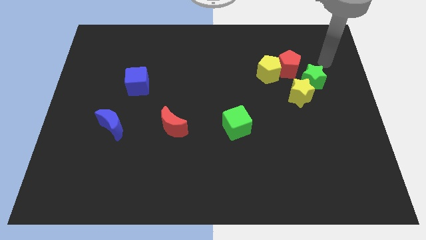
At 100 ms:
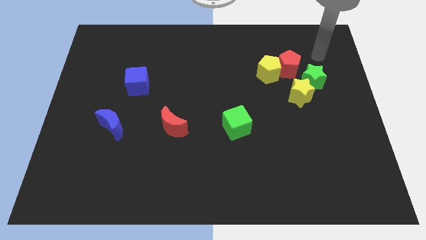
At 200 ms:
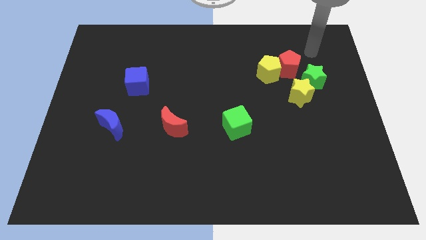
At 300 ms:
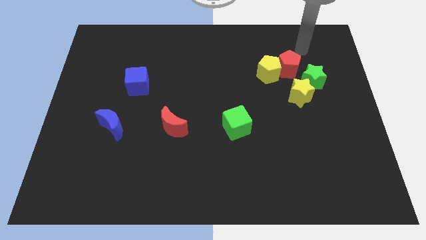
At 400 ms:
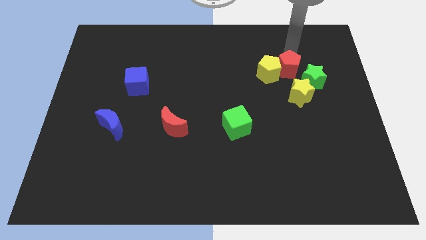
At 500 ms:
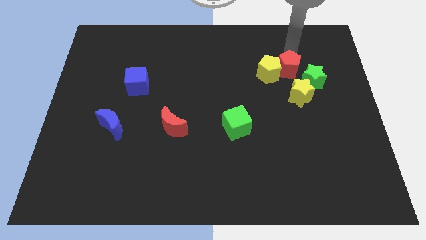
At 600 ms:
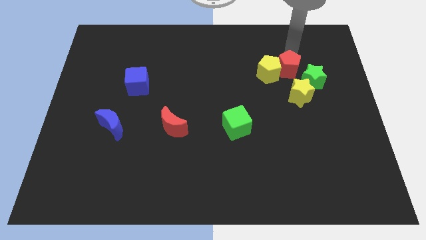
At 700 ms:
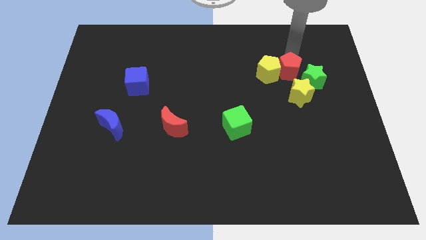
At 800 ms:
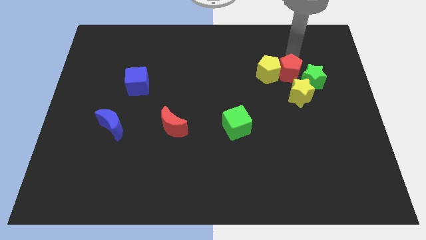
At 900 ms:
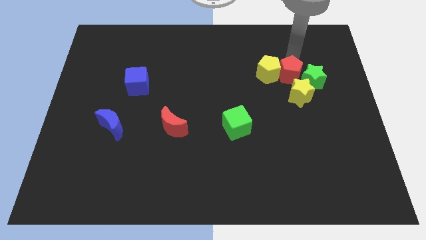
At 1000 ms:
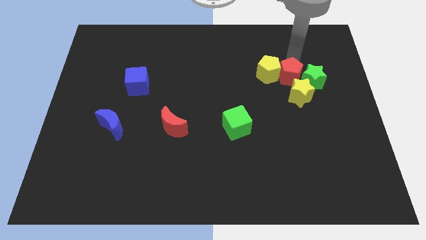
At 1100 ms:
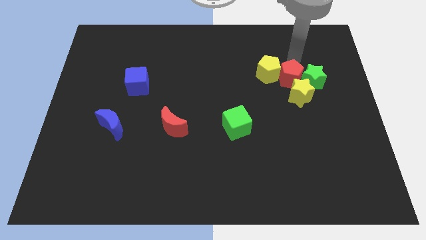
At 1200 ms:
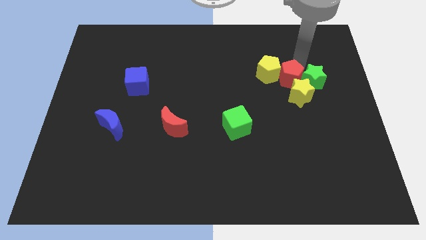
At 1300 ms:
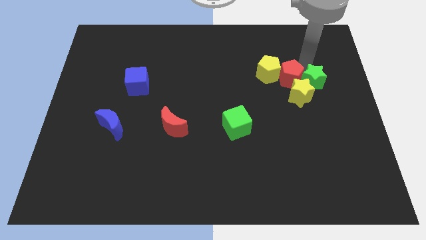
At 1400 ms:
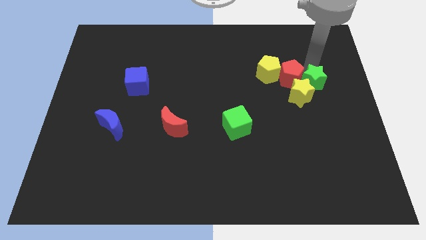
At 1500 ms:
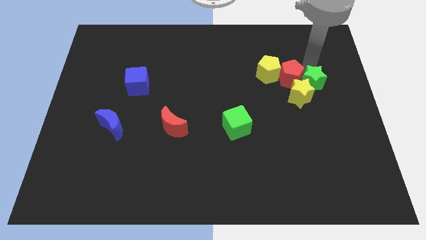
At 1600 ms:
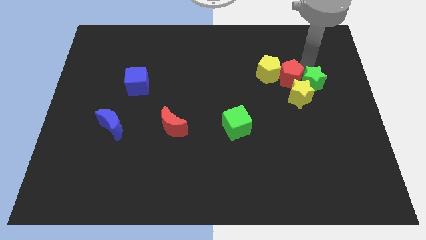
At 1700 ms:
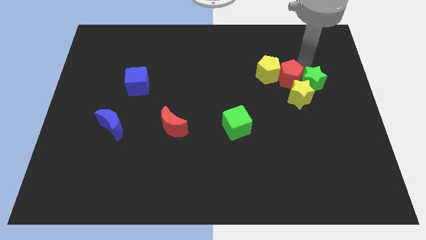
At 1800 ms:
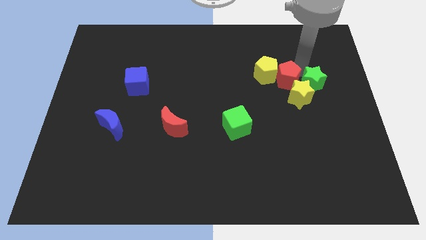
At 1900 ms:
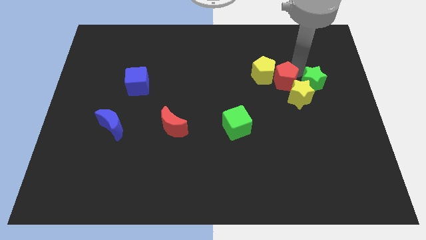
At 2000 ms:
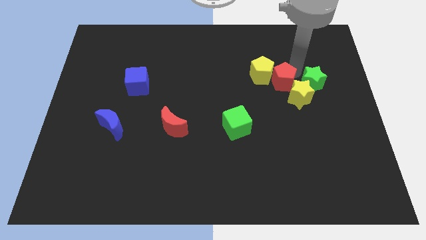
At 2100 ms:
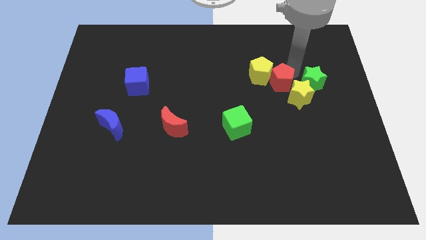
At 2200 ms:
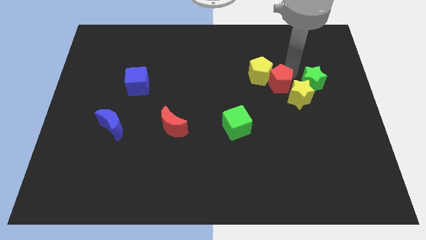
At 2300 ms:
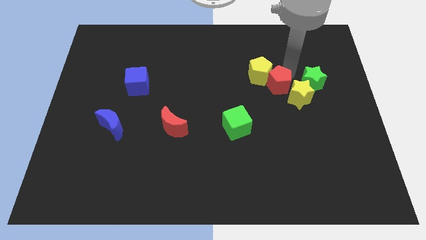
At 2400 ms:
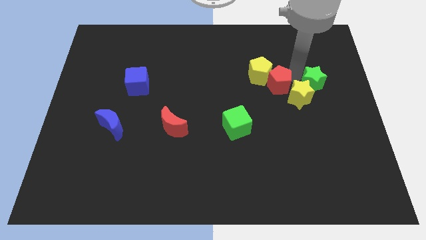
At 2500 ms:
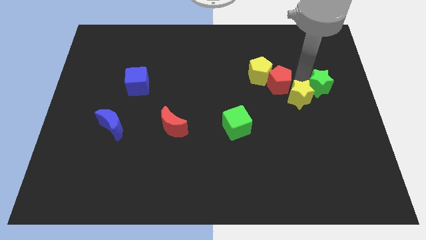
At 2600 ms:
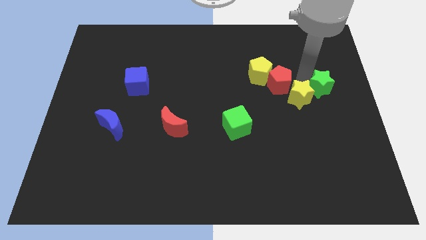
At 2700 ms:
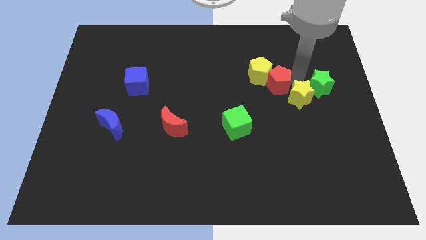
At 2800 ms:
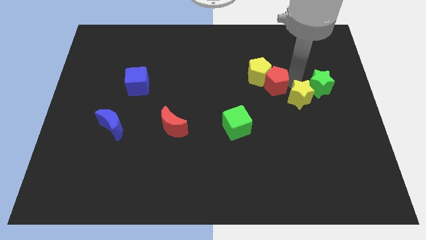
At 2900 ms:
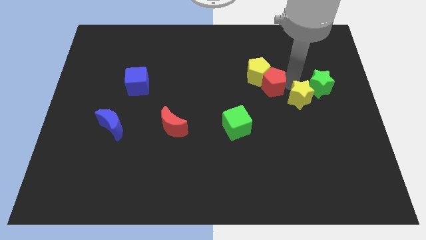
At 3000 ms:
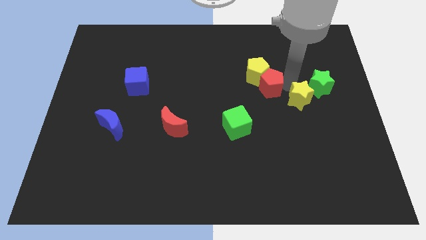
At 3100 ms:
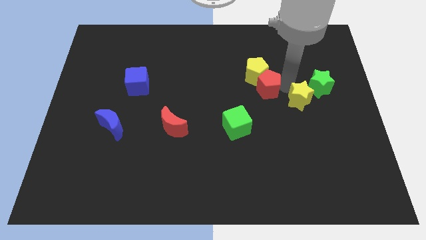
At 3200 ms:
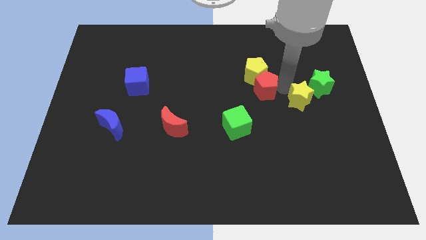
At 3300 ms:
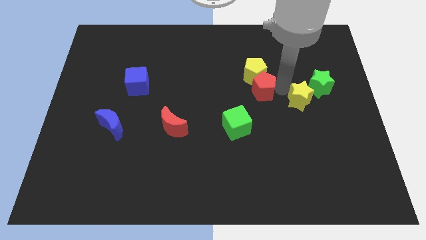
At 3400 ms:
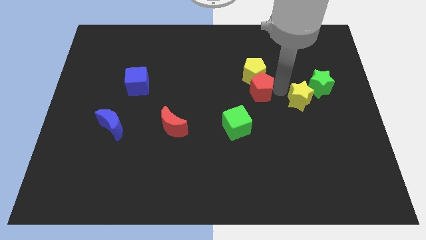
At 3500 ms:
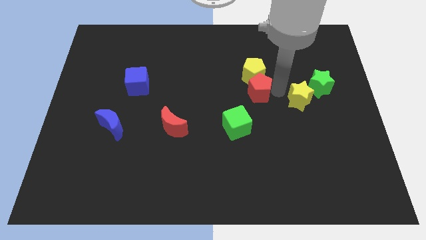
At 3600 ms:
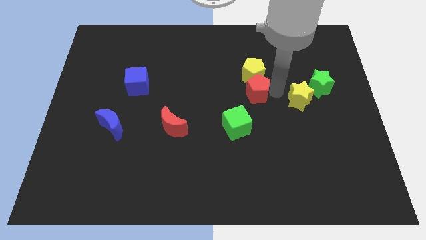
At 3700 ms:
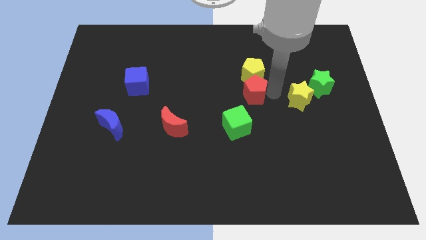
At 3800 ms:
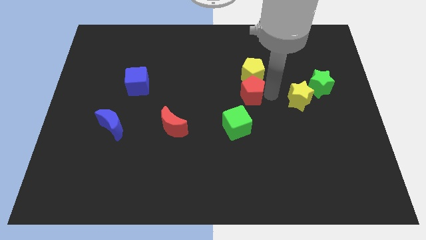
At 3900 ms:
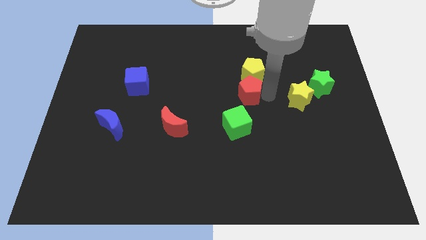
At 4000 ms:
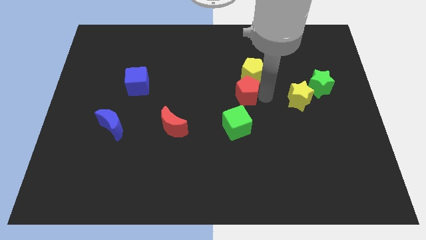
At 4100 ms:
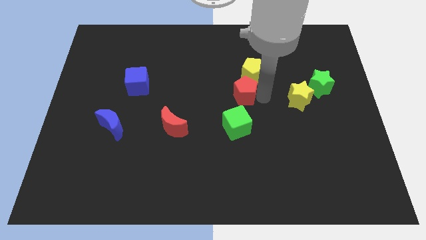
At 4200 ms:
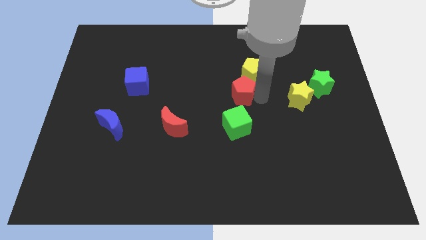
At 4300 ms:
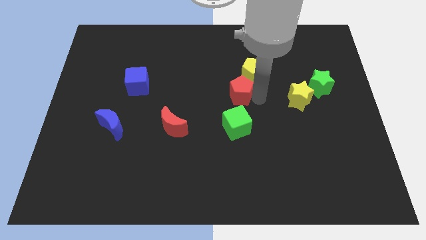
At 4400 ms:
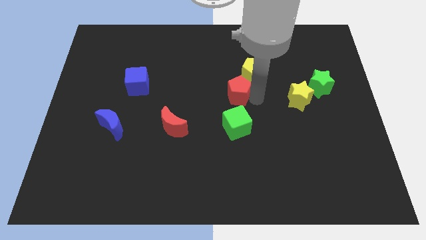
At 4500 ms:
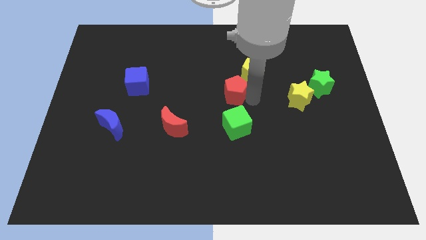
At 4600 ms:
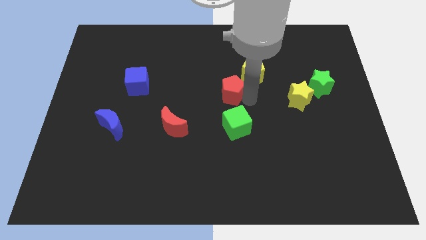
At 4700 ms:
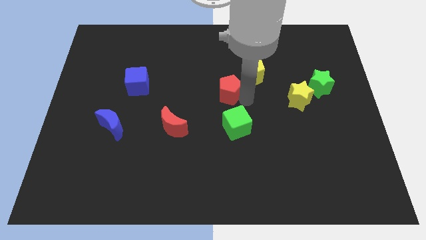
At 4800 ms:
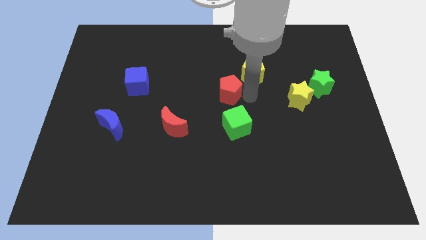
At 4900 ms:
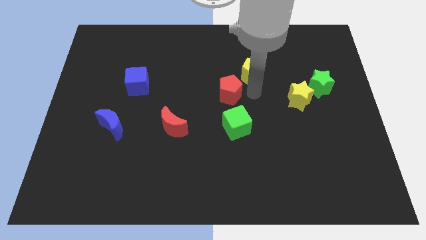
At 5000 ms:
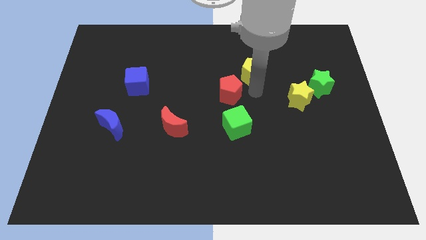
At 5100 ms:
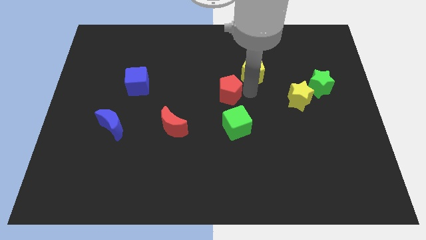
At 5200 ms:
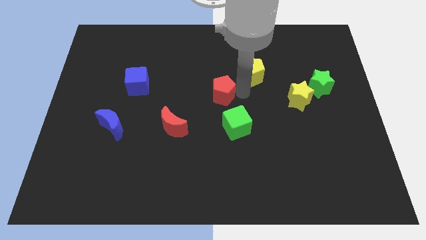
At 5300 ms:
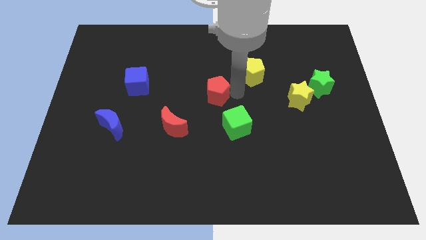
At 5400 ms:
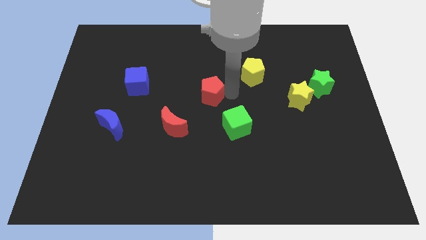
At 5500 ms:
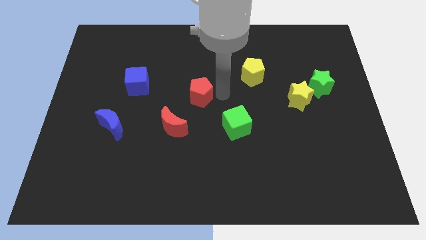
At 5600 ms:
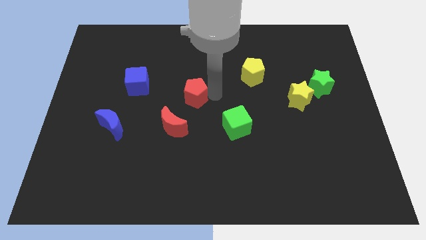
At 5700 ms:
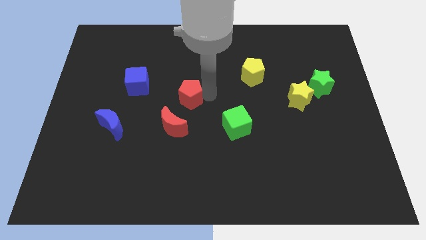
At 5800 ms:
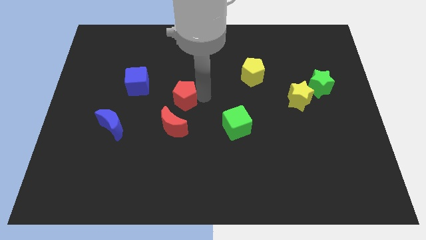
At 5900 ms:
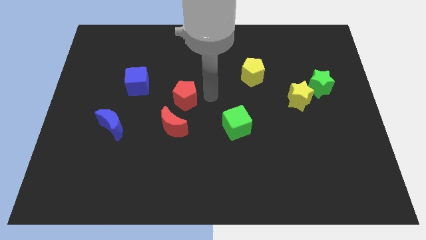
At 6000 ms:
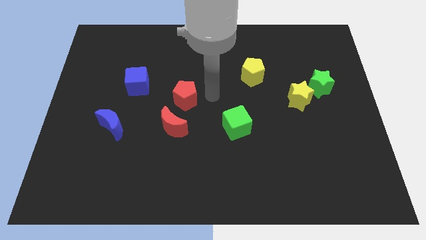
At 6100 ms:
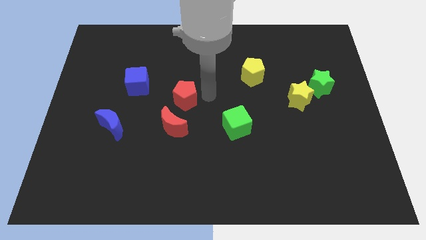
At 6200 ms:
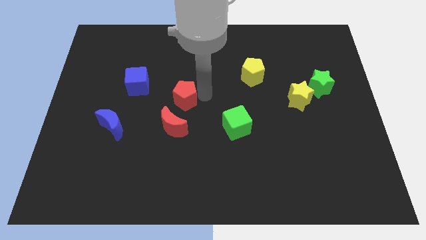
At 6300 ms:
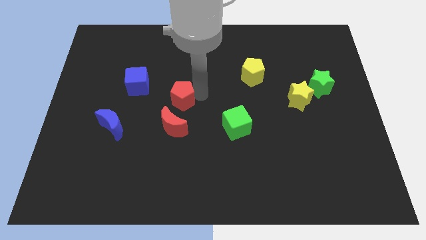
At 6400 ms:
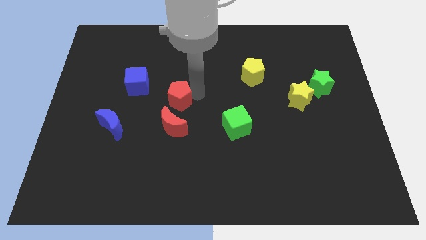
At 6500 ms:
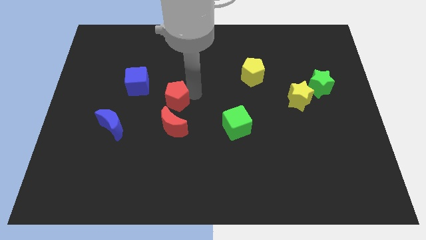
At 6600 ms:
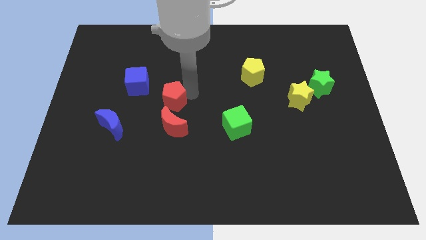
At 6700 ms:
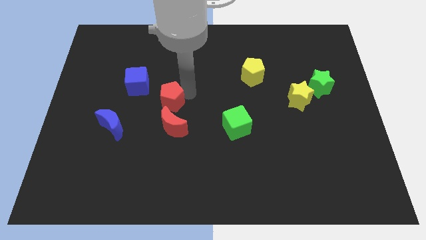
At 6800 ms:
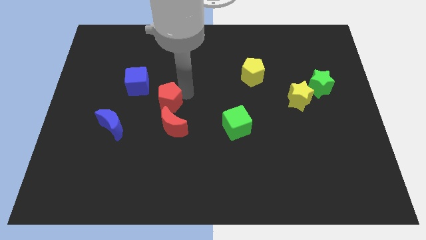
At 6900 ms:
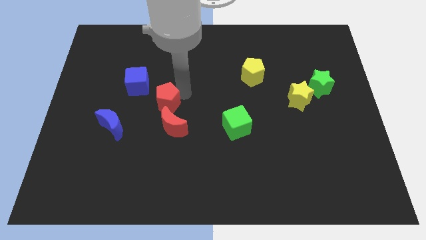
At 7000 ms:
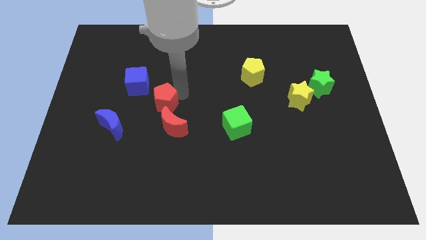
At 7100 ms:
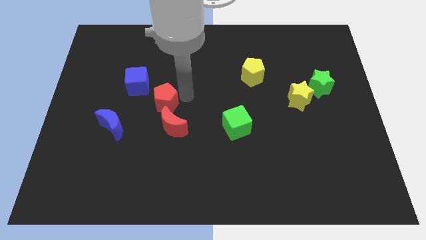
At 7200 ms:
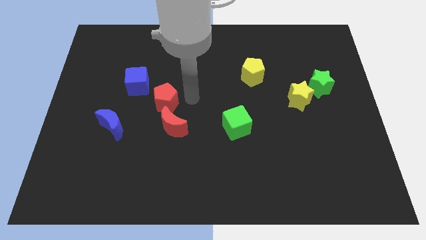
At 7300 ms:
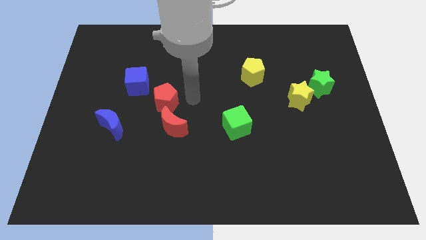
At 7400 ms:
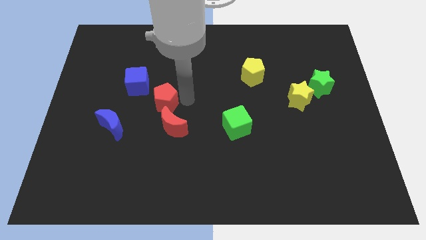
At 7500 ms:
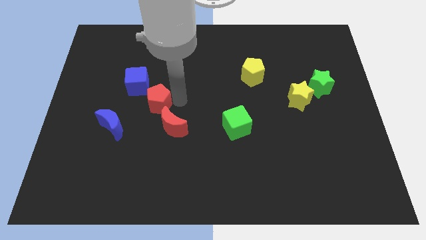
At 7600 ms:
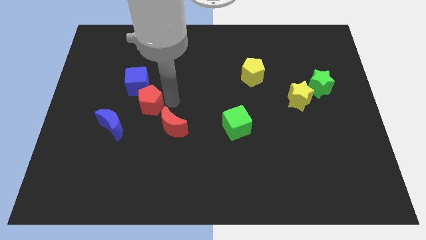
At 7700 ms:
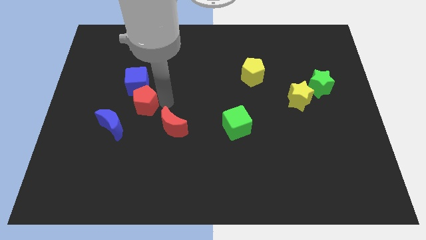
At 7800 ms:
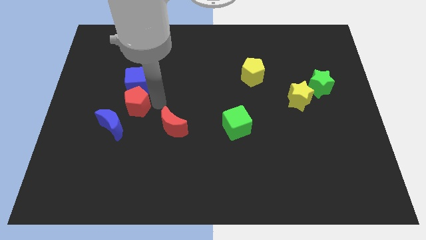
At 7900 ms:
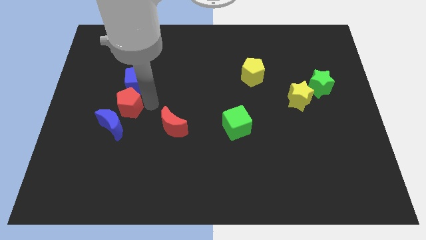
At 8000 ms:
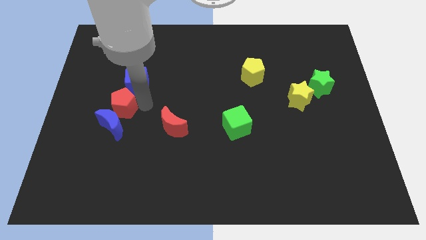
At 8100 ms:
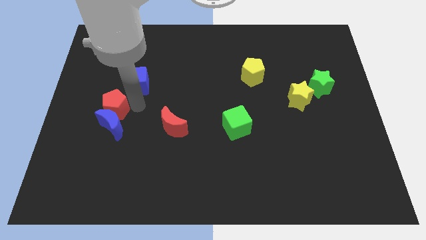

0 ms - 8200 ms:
move the red pentagon diagonally up and to the left of the blue moon
